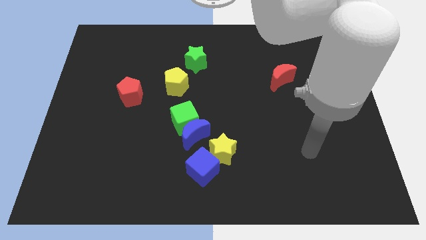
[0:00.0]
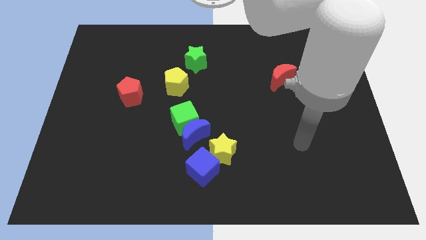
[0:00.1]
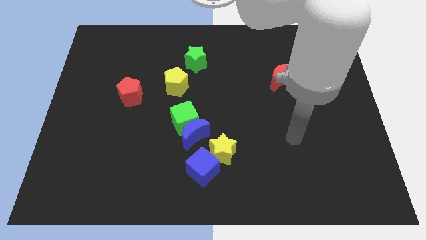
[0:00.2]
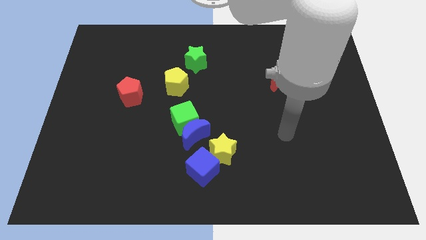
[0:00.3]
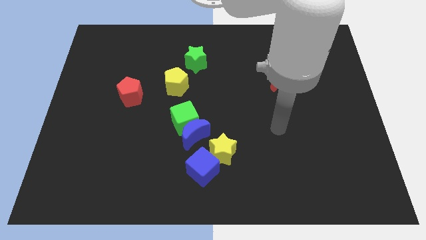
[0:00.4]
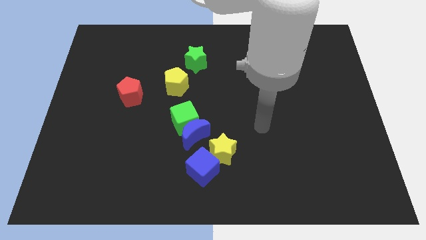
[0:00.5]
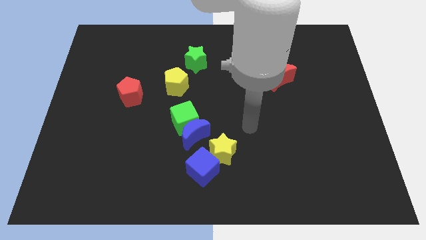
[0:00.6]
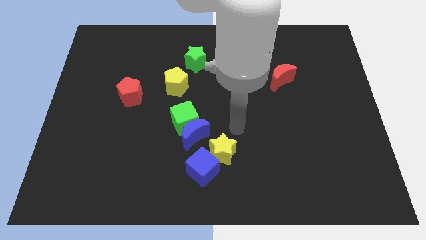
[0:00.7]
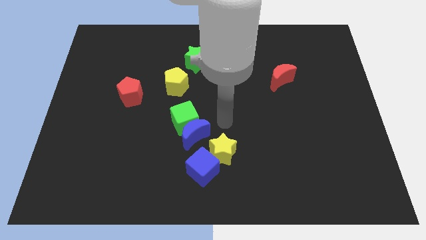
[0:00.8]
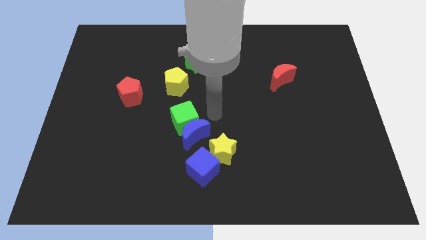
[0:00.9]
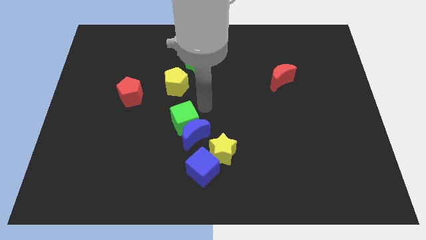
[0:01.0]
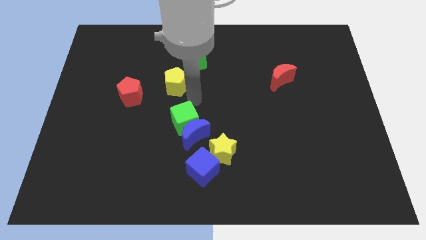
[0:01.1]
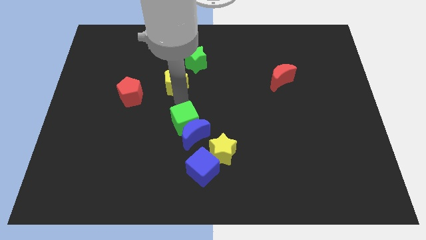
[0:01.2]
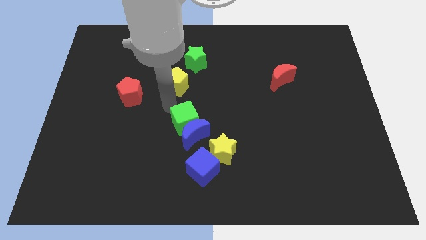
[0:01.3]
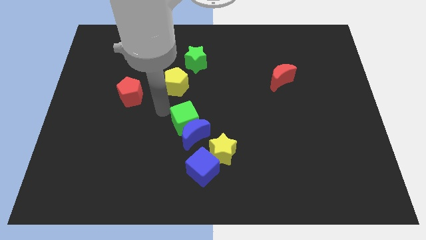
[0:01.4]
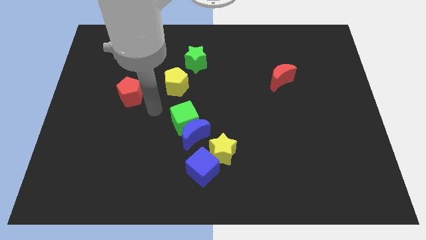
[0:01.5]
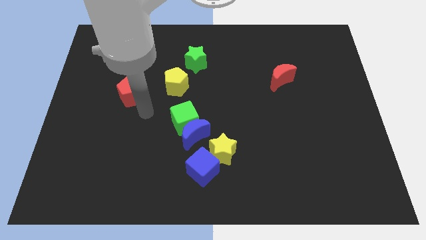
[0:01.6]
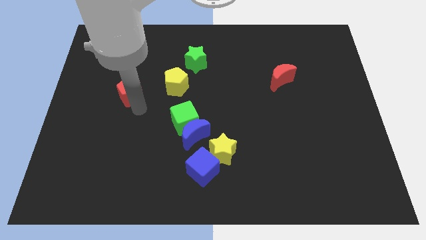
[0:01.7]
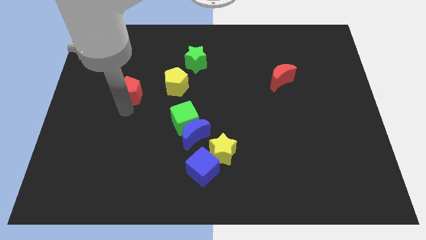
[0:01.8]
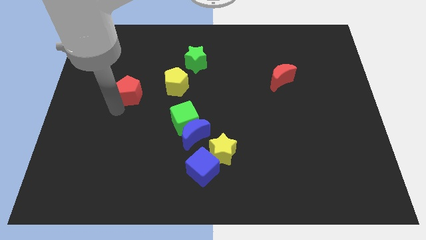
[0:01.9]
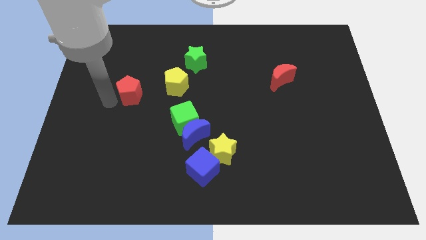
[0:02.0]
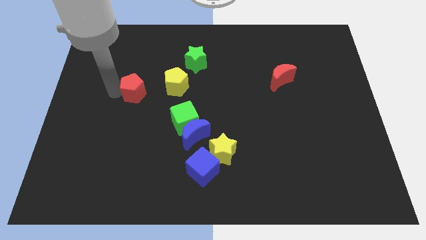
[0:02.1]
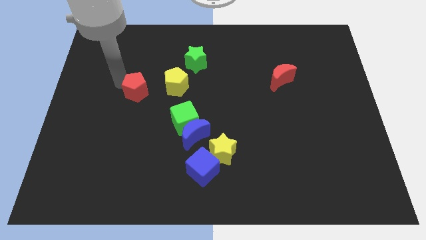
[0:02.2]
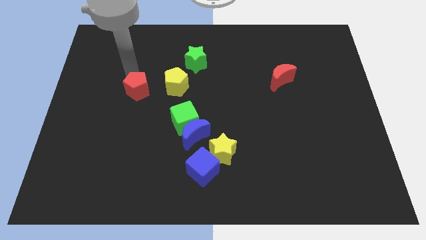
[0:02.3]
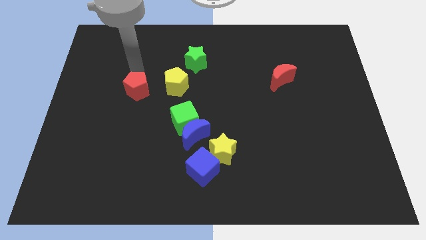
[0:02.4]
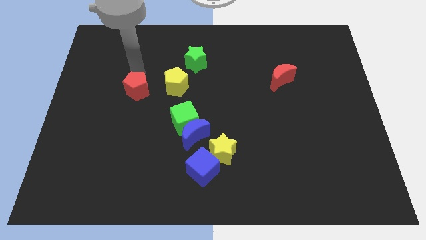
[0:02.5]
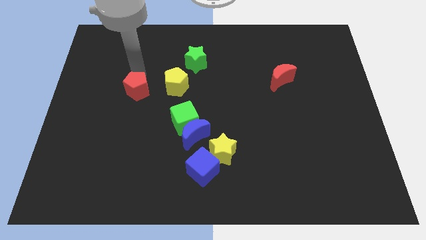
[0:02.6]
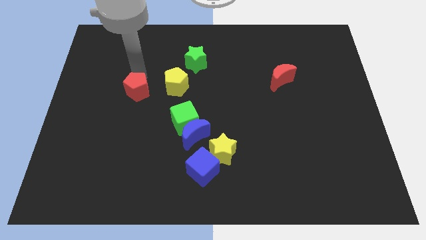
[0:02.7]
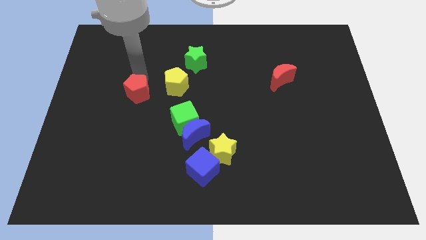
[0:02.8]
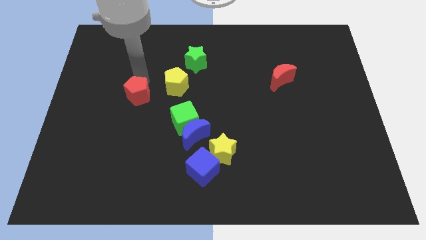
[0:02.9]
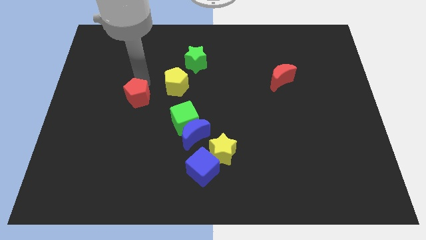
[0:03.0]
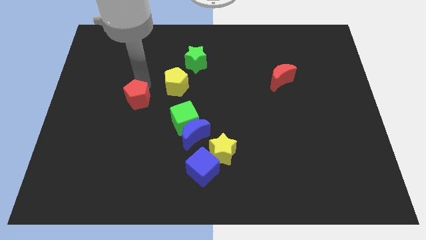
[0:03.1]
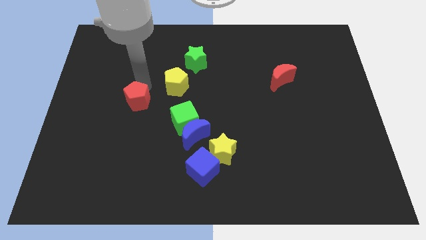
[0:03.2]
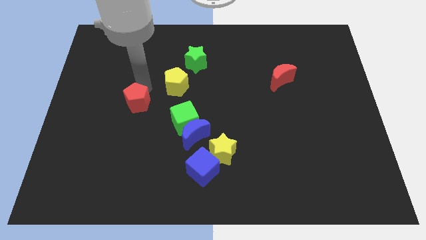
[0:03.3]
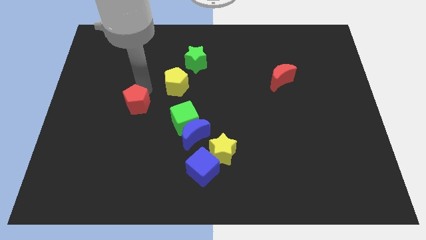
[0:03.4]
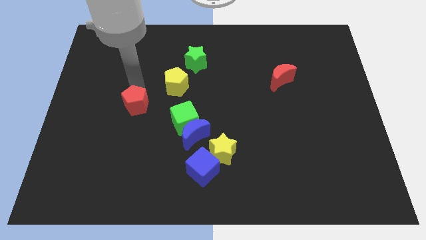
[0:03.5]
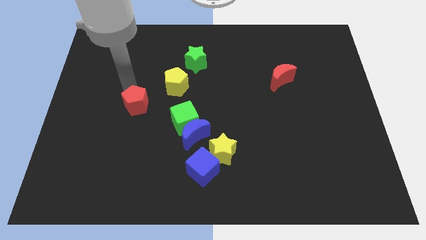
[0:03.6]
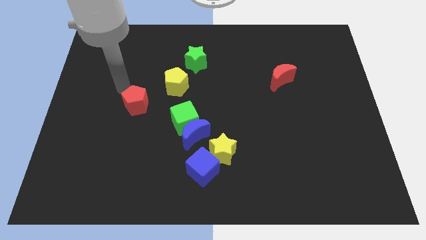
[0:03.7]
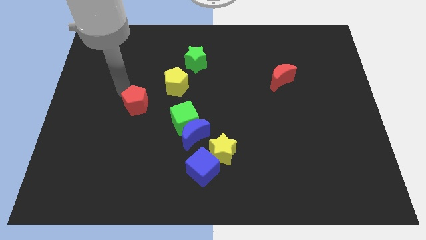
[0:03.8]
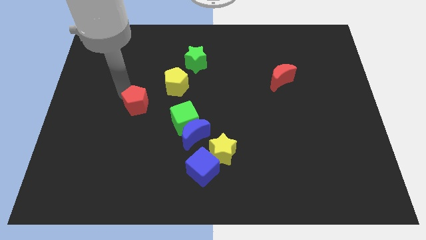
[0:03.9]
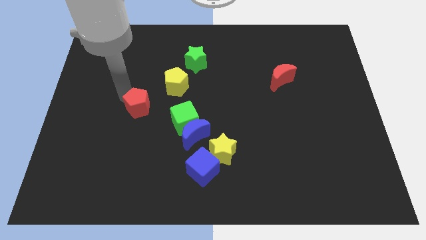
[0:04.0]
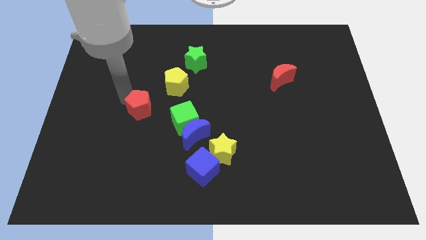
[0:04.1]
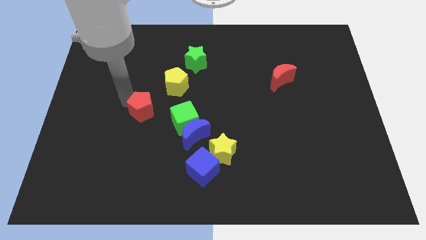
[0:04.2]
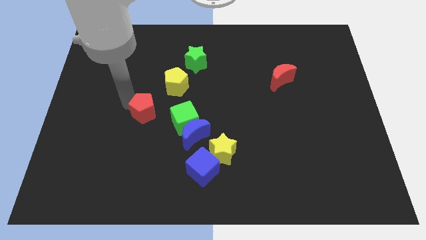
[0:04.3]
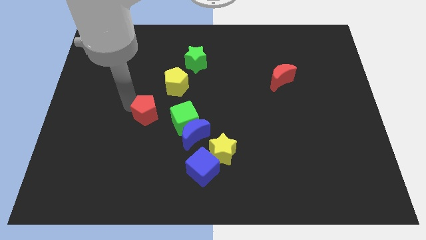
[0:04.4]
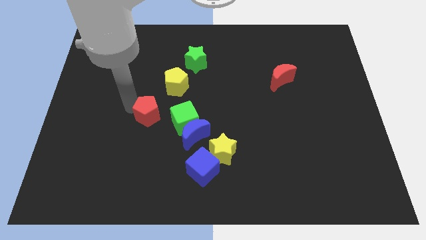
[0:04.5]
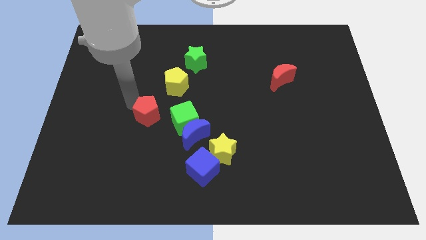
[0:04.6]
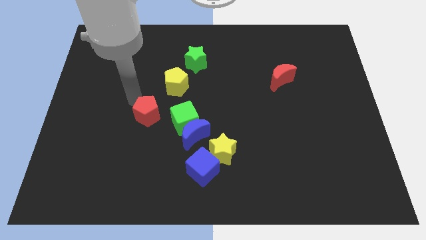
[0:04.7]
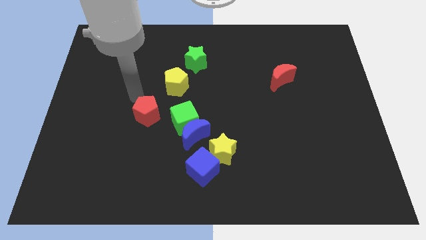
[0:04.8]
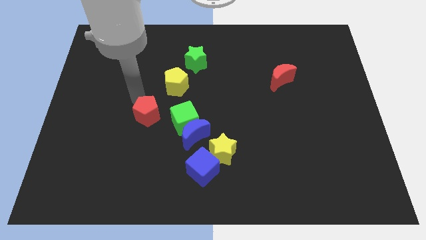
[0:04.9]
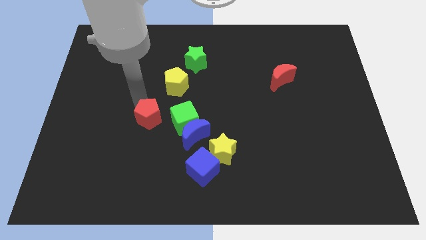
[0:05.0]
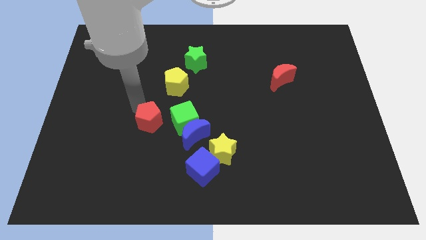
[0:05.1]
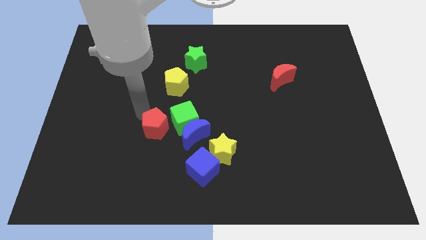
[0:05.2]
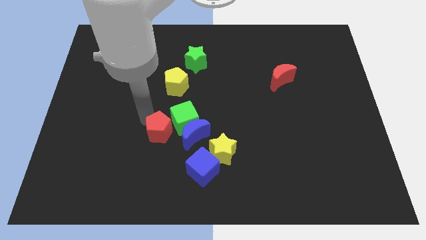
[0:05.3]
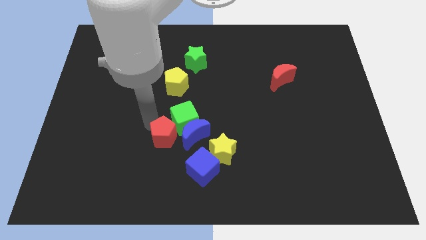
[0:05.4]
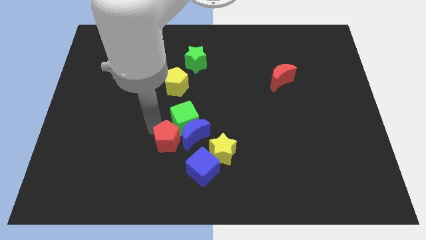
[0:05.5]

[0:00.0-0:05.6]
move the red pentagon close to the blue moon
